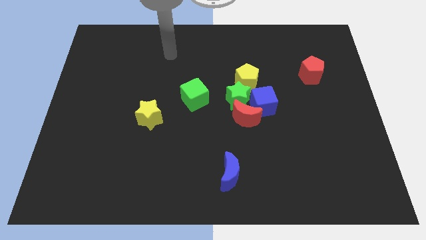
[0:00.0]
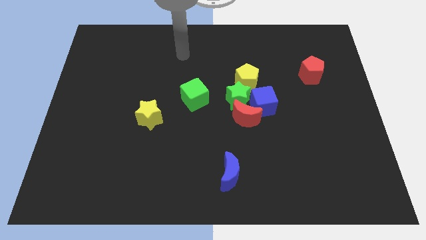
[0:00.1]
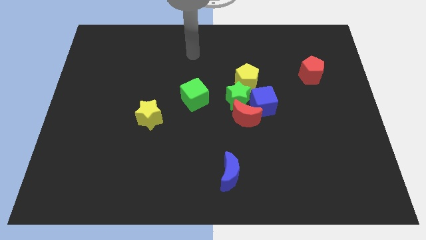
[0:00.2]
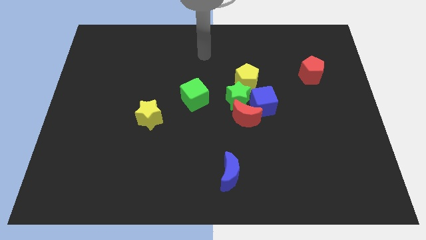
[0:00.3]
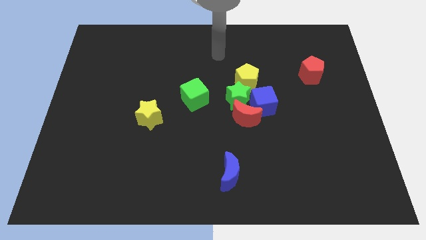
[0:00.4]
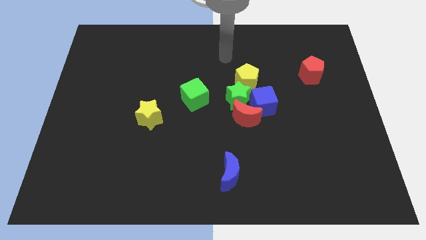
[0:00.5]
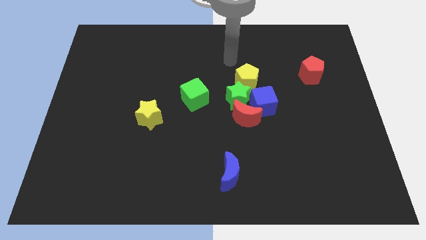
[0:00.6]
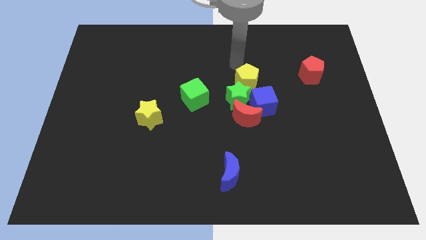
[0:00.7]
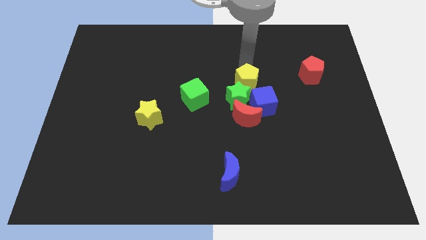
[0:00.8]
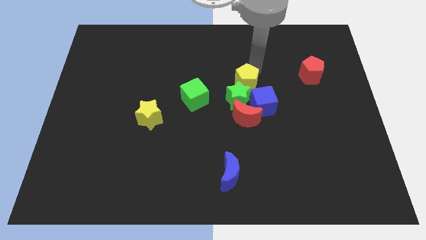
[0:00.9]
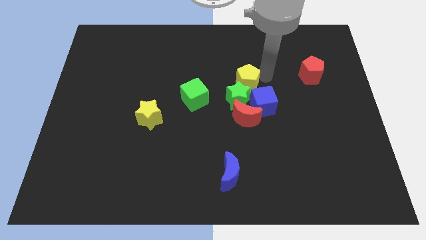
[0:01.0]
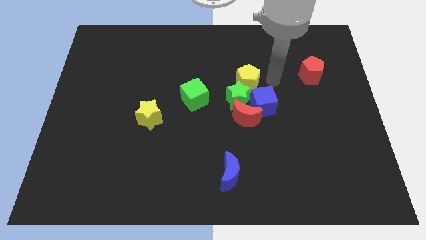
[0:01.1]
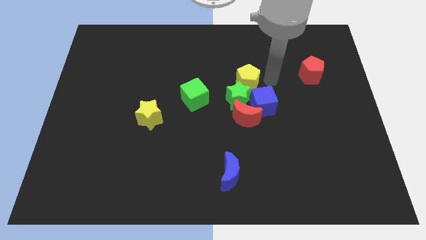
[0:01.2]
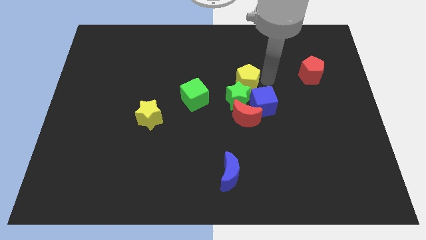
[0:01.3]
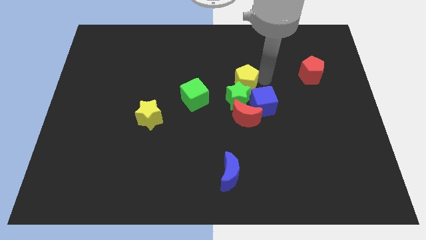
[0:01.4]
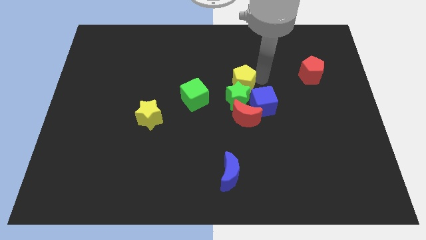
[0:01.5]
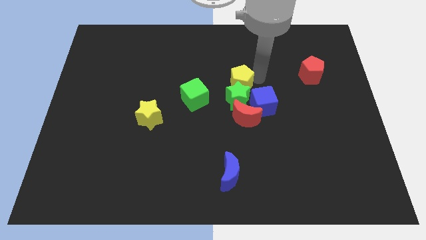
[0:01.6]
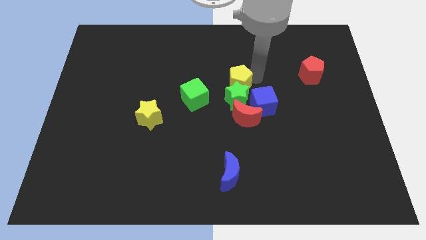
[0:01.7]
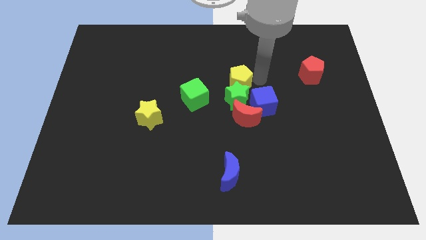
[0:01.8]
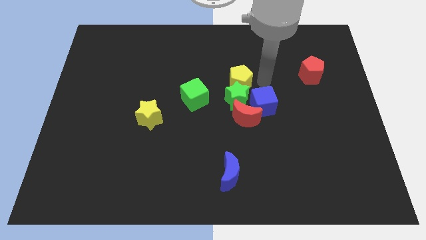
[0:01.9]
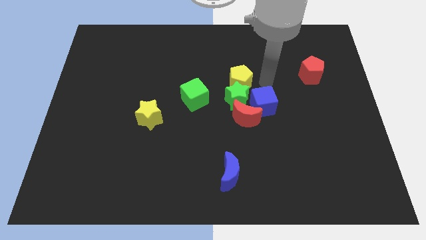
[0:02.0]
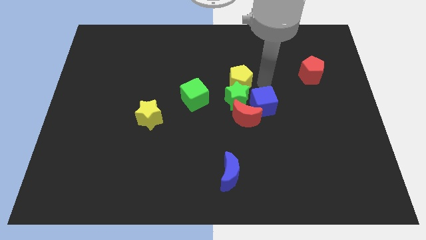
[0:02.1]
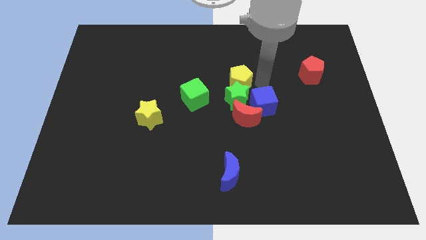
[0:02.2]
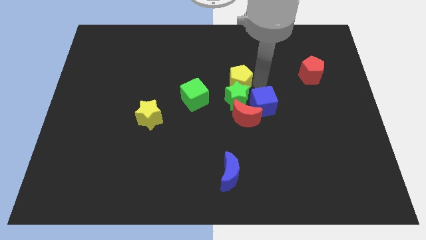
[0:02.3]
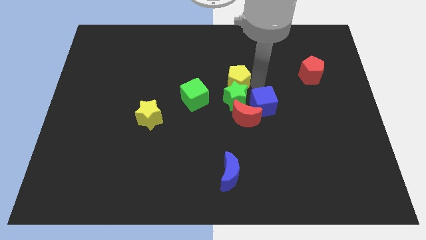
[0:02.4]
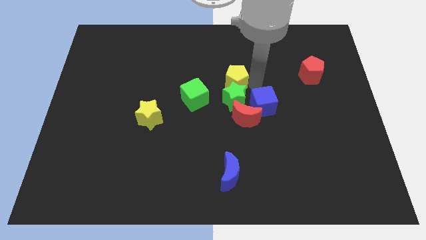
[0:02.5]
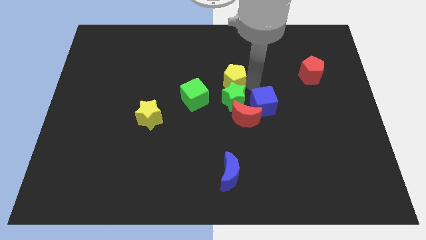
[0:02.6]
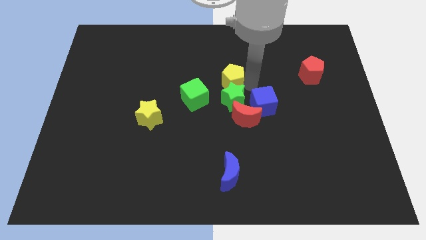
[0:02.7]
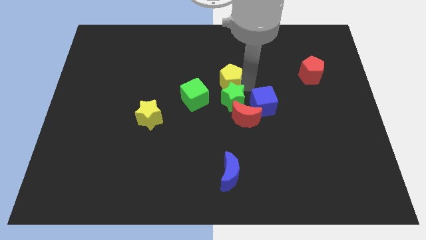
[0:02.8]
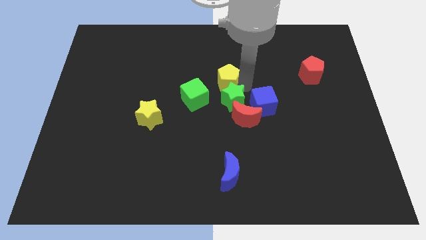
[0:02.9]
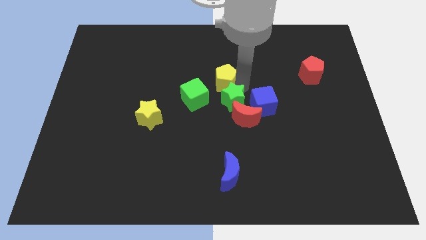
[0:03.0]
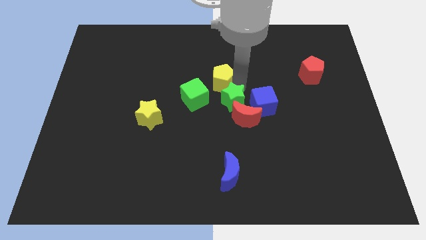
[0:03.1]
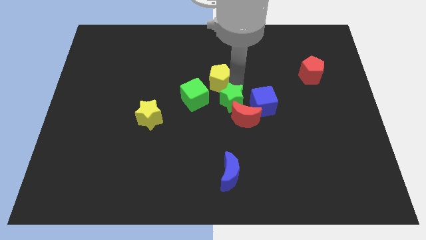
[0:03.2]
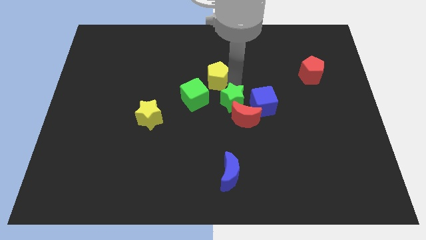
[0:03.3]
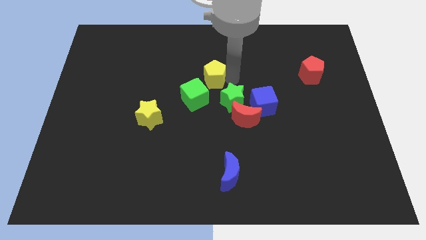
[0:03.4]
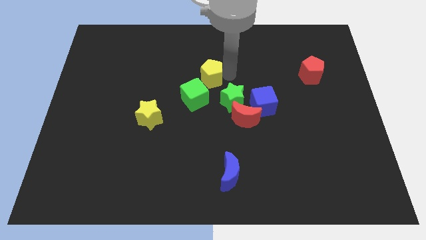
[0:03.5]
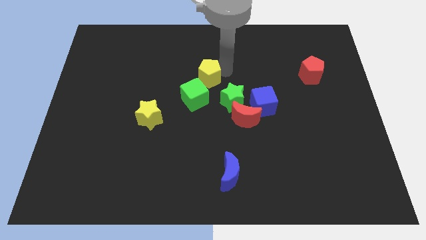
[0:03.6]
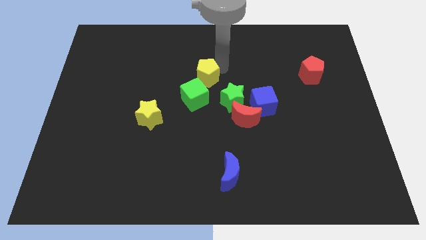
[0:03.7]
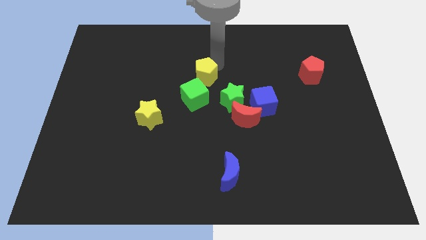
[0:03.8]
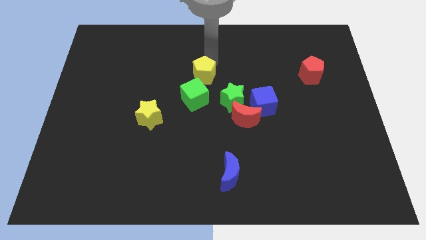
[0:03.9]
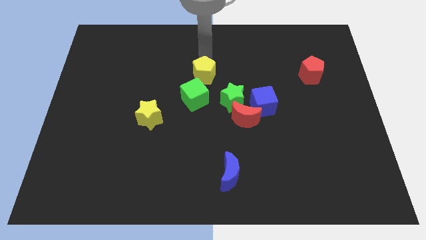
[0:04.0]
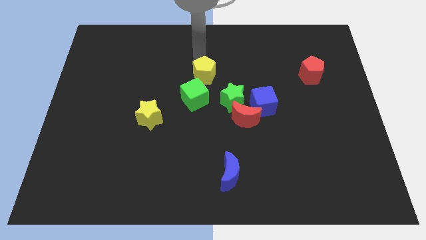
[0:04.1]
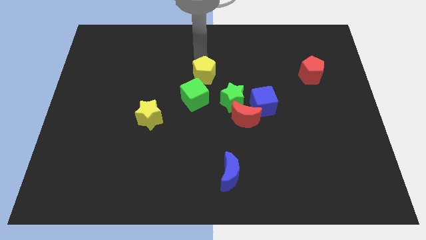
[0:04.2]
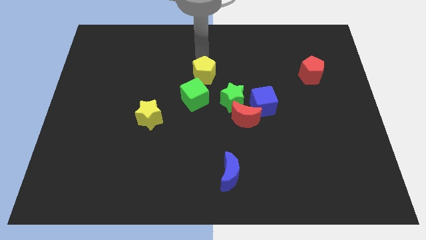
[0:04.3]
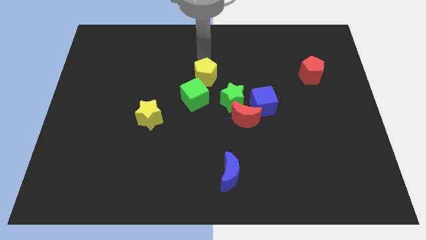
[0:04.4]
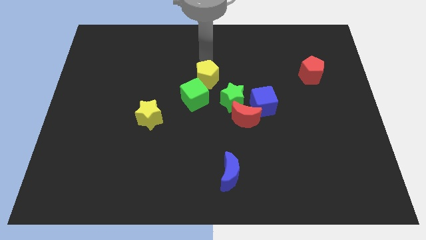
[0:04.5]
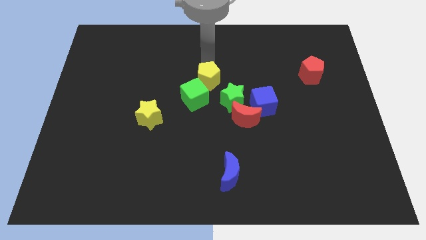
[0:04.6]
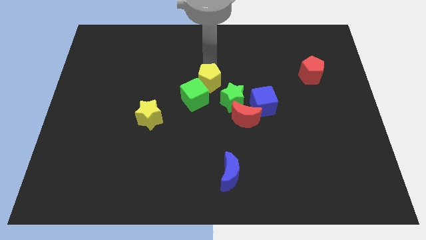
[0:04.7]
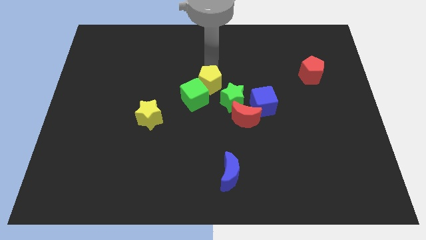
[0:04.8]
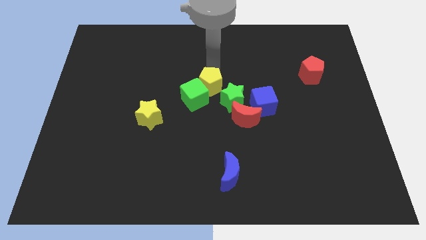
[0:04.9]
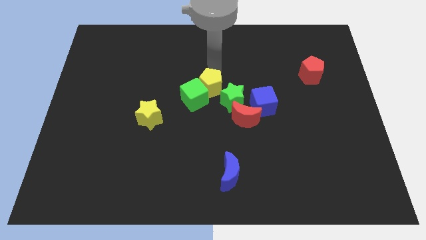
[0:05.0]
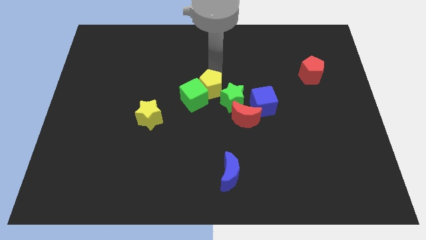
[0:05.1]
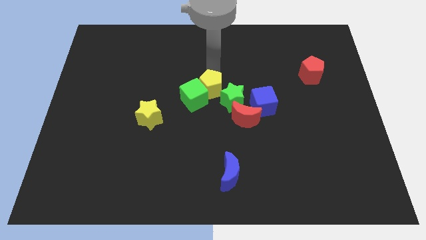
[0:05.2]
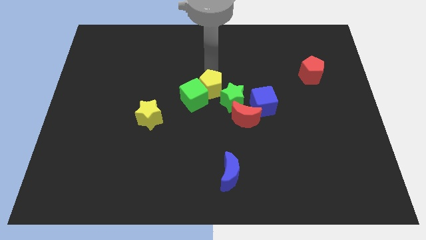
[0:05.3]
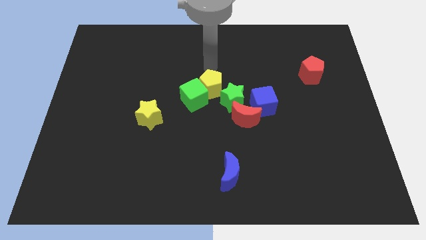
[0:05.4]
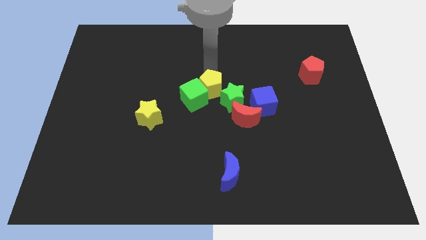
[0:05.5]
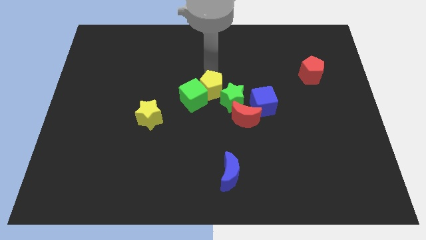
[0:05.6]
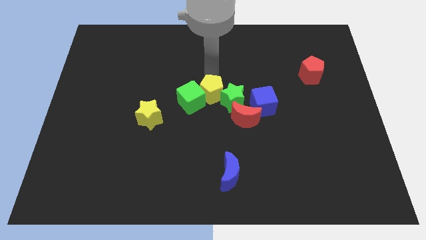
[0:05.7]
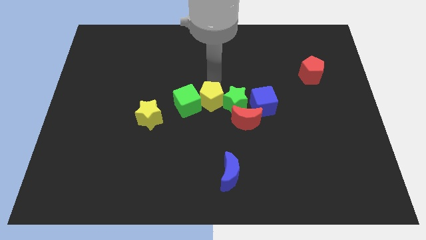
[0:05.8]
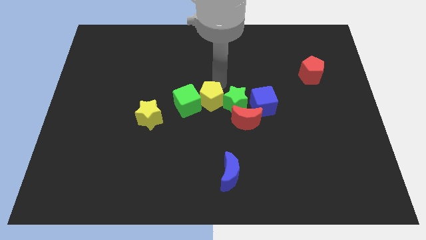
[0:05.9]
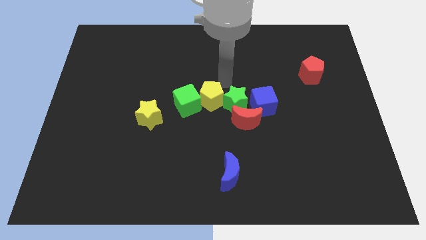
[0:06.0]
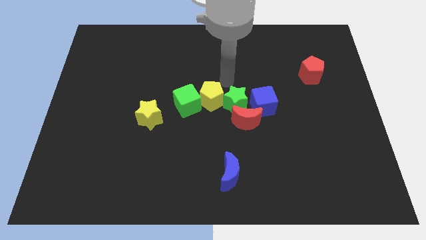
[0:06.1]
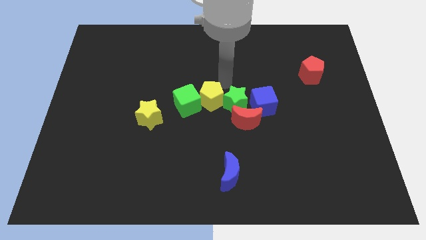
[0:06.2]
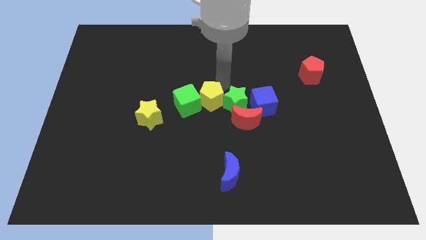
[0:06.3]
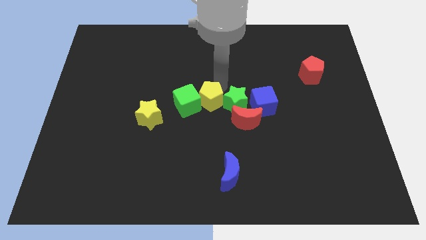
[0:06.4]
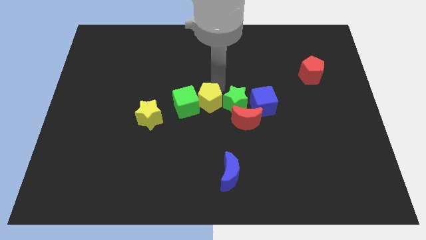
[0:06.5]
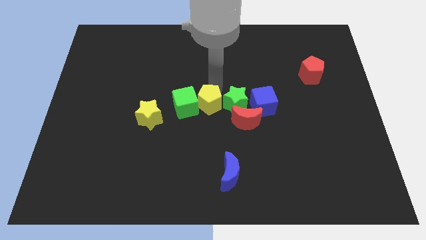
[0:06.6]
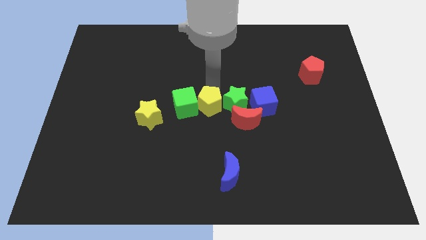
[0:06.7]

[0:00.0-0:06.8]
push the yellow pentagon to the right of the yellow star
